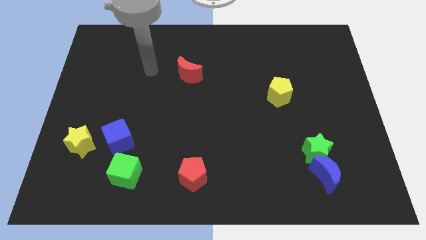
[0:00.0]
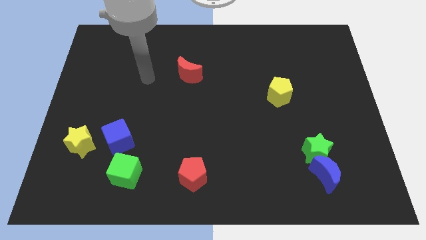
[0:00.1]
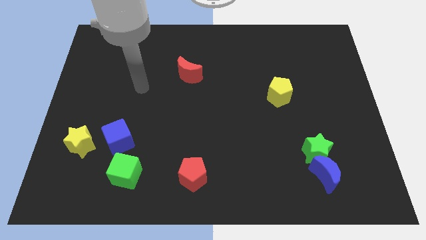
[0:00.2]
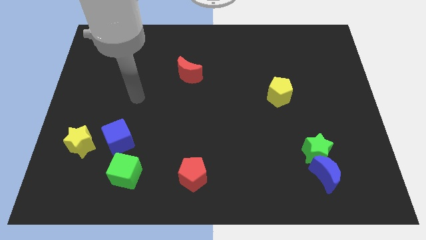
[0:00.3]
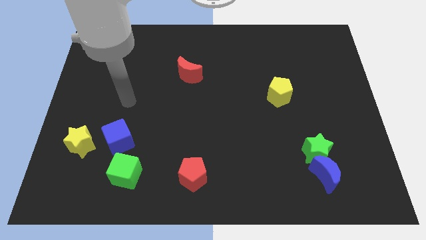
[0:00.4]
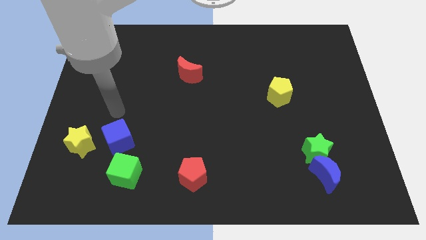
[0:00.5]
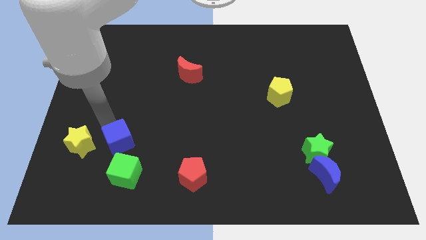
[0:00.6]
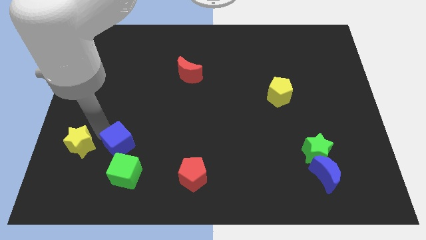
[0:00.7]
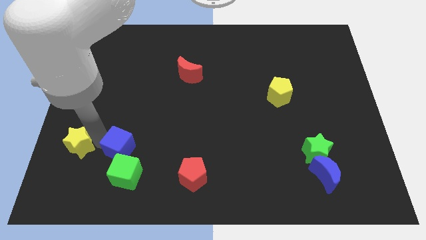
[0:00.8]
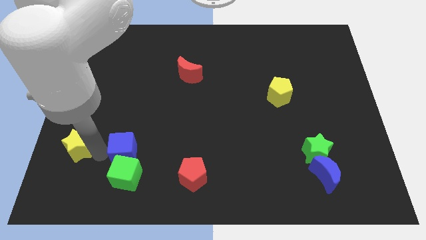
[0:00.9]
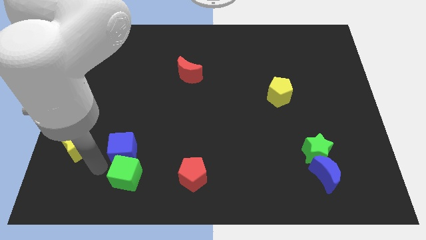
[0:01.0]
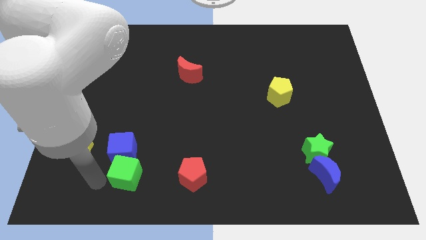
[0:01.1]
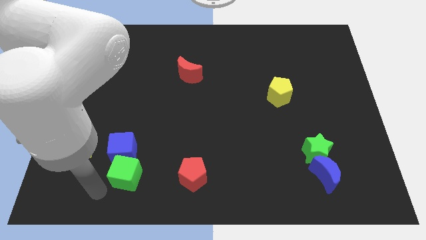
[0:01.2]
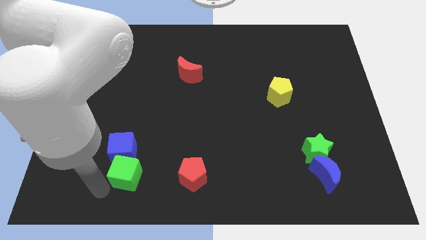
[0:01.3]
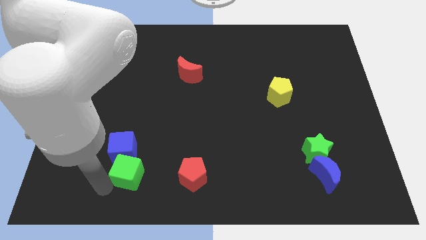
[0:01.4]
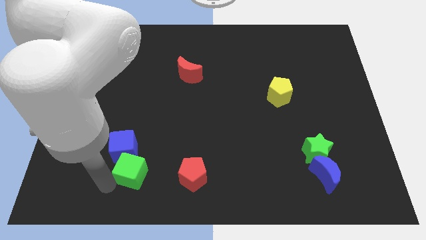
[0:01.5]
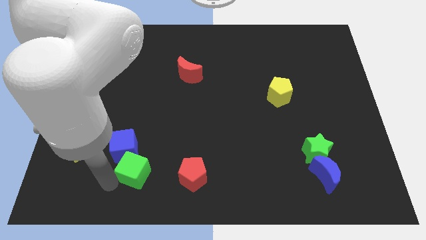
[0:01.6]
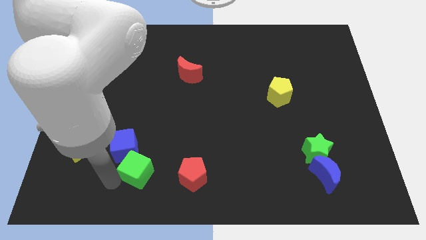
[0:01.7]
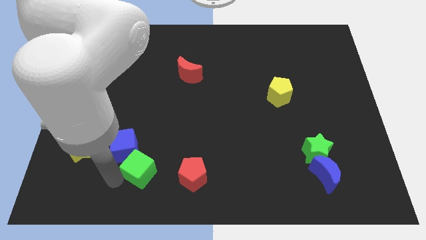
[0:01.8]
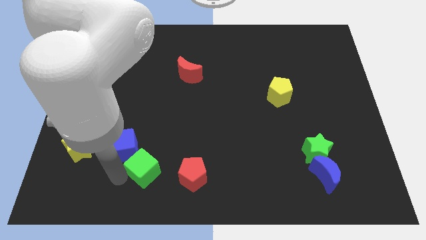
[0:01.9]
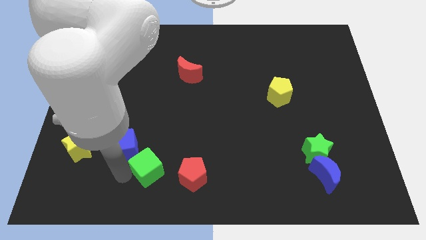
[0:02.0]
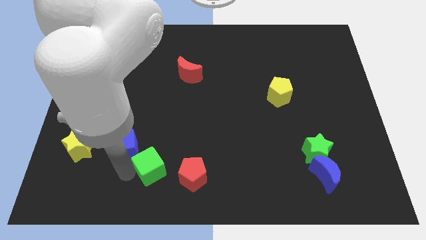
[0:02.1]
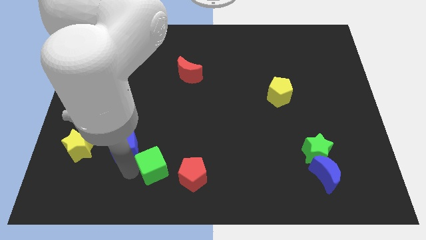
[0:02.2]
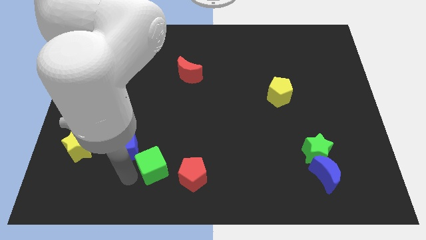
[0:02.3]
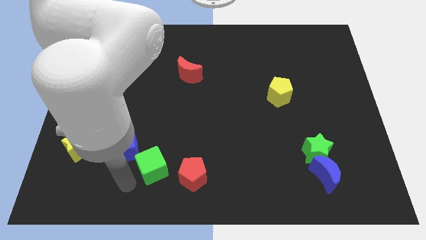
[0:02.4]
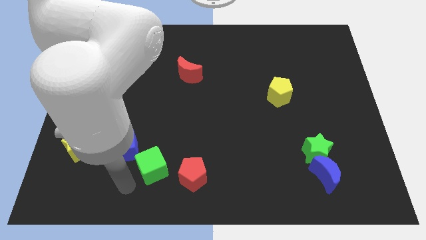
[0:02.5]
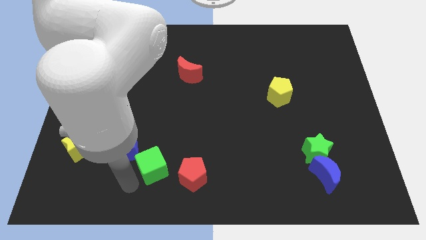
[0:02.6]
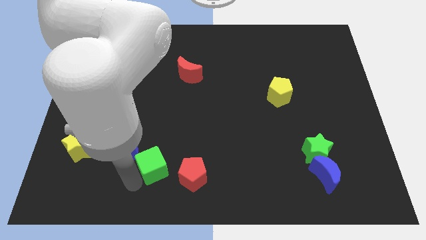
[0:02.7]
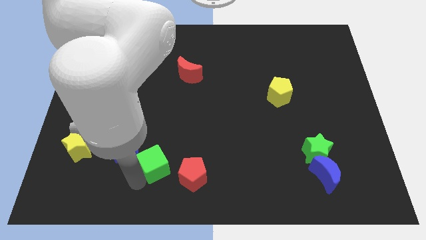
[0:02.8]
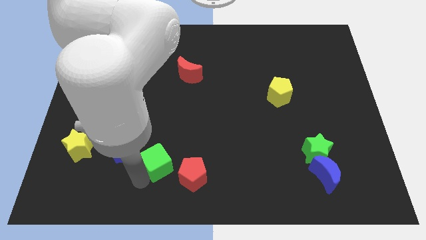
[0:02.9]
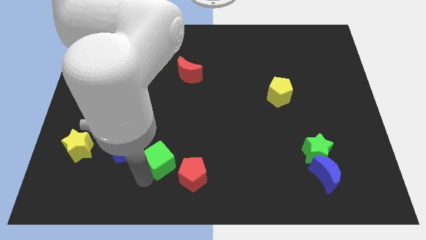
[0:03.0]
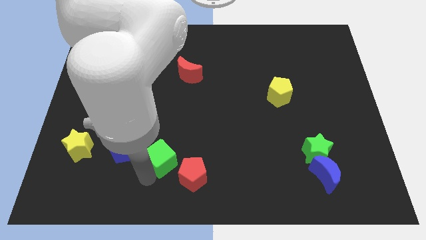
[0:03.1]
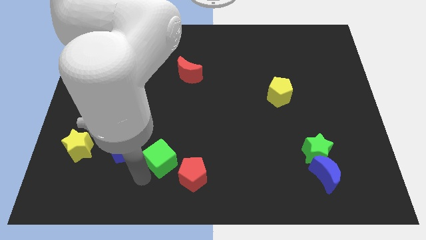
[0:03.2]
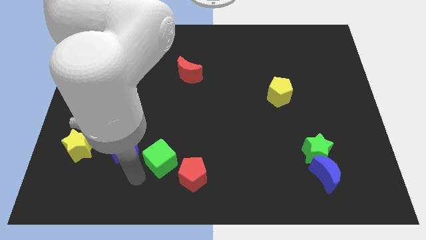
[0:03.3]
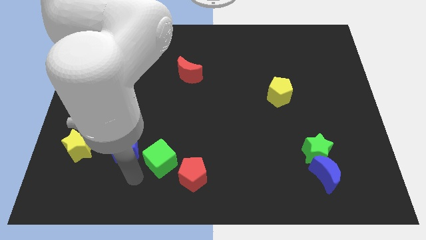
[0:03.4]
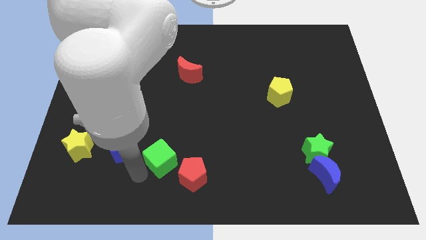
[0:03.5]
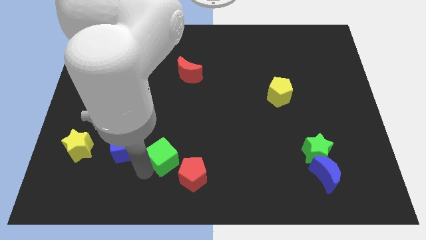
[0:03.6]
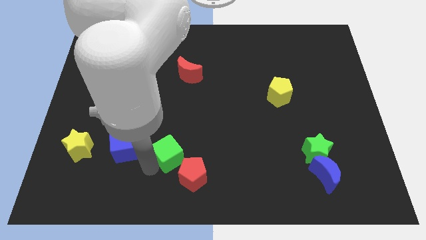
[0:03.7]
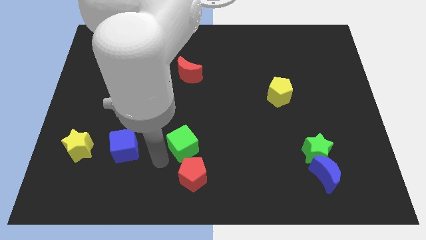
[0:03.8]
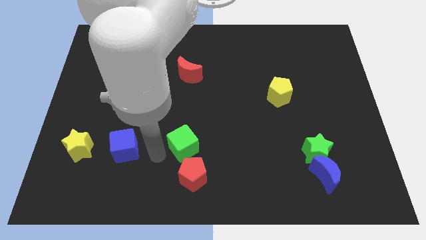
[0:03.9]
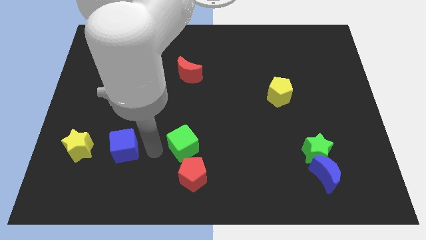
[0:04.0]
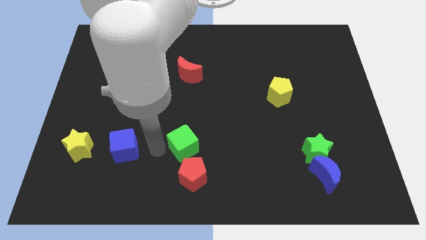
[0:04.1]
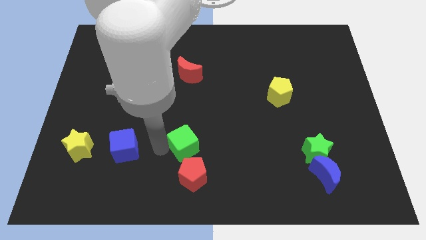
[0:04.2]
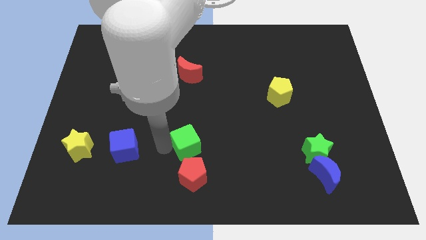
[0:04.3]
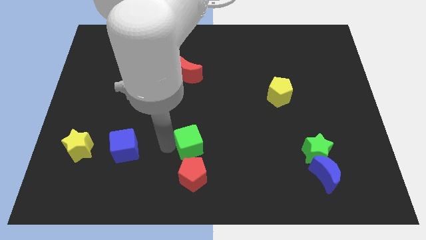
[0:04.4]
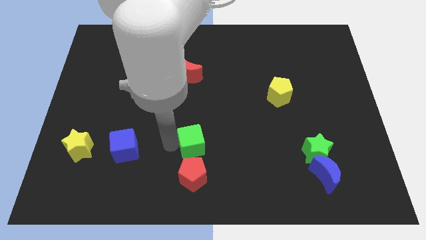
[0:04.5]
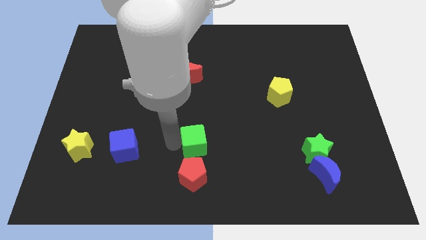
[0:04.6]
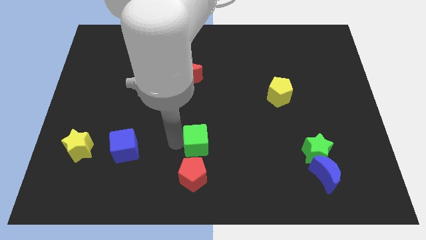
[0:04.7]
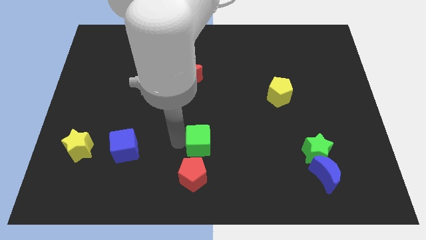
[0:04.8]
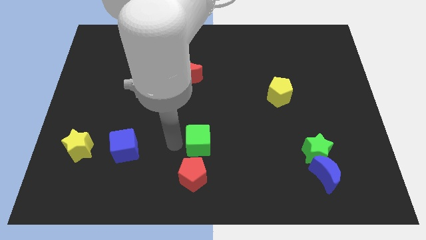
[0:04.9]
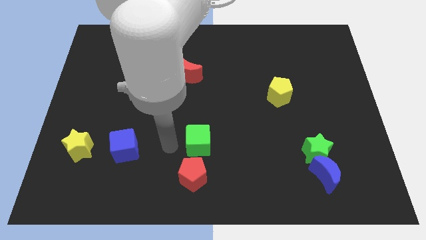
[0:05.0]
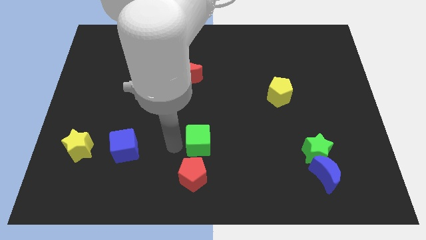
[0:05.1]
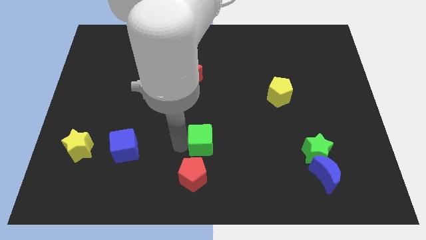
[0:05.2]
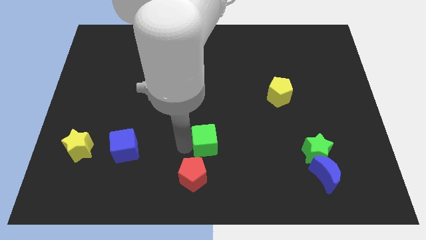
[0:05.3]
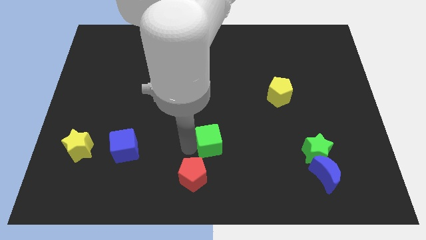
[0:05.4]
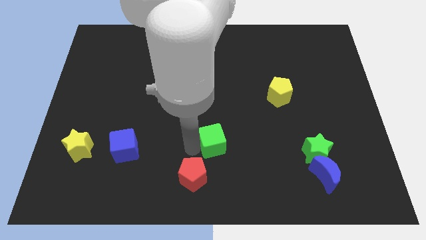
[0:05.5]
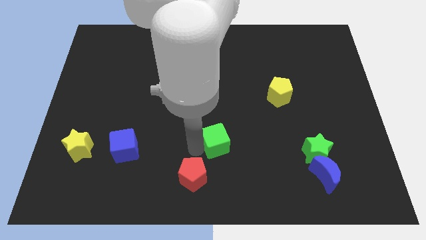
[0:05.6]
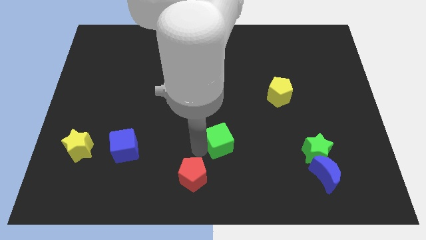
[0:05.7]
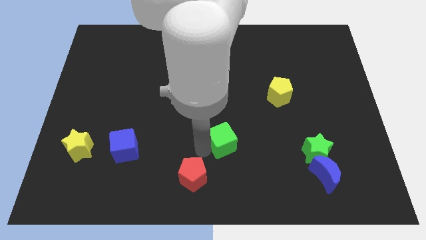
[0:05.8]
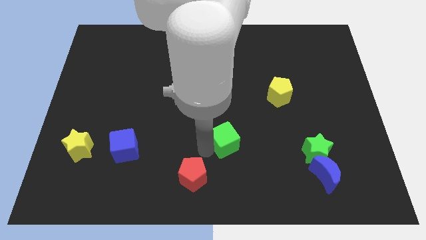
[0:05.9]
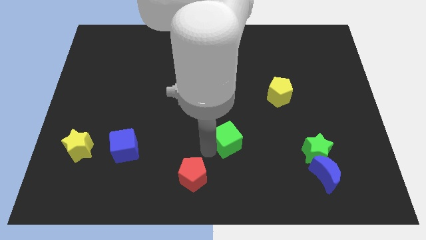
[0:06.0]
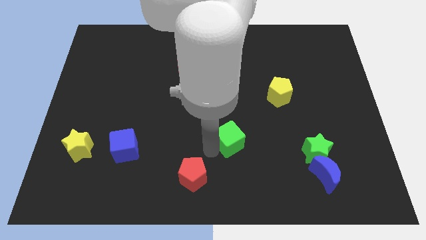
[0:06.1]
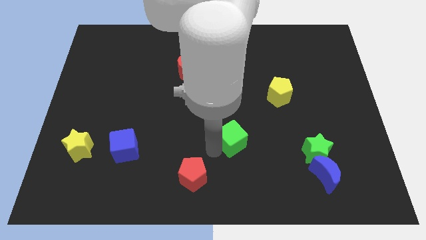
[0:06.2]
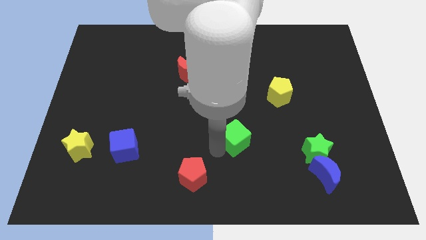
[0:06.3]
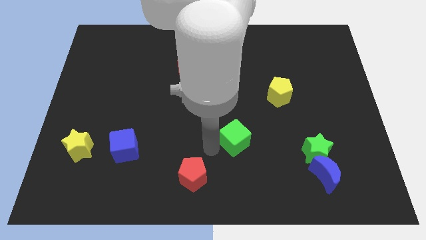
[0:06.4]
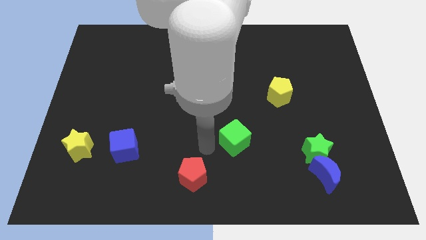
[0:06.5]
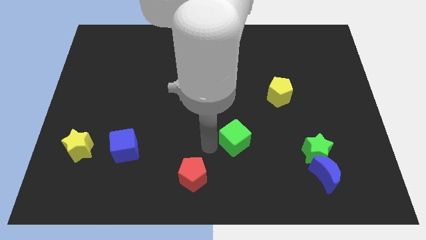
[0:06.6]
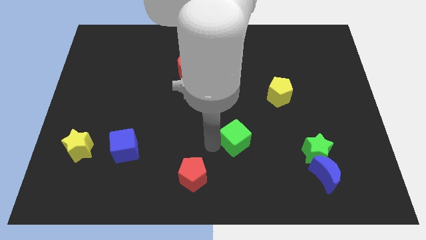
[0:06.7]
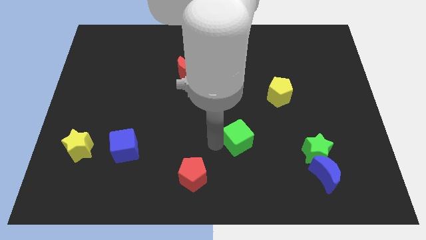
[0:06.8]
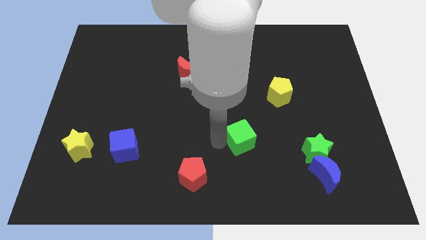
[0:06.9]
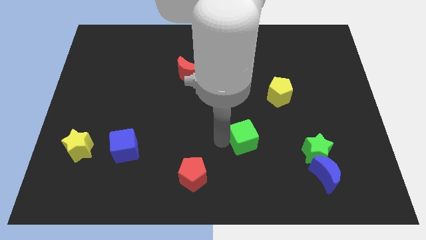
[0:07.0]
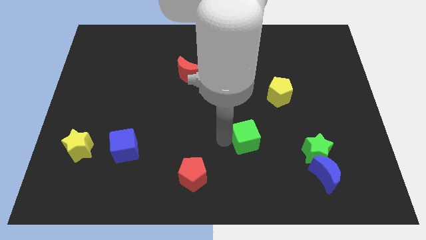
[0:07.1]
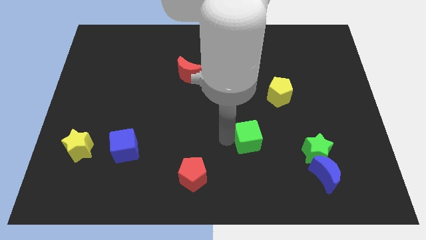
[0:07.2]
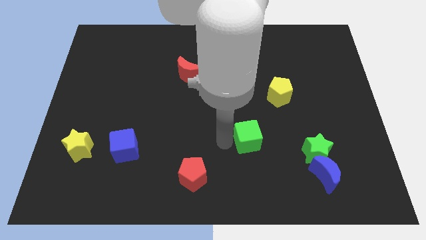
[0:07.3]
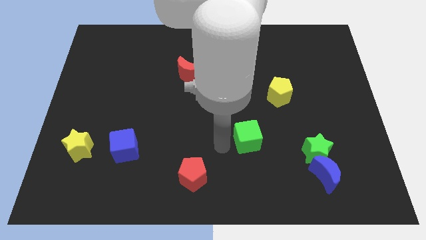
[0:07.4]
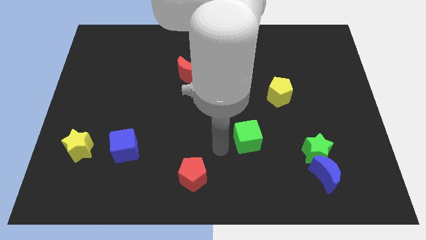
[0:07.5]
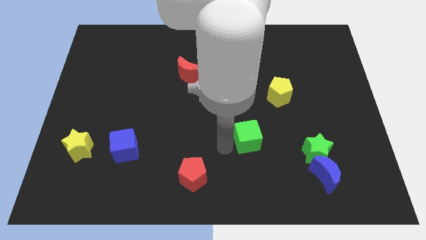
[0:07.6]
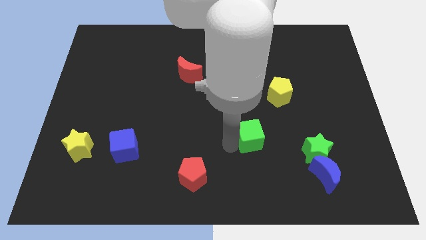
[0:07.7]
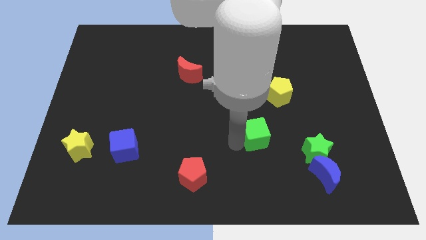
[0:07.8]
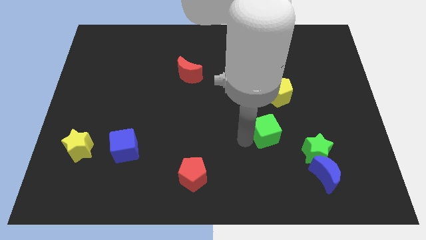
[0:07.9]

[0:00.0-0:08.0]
move the green cube to the top left of the green star
